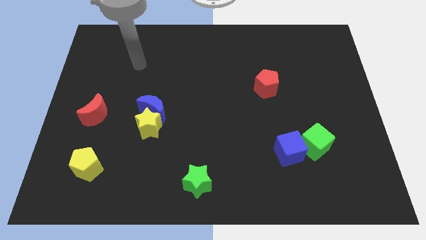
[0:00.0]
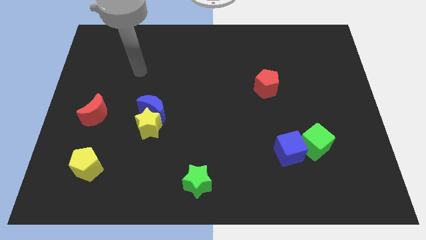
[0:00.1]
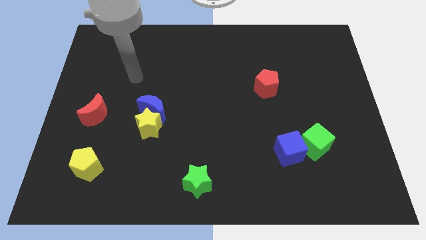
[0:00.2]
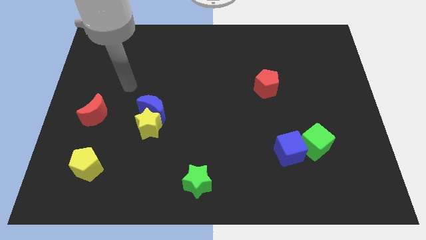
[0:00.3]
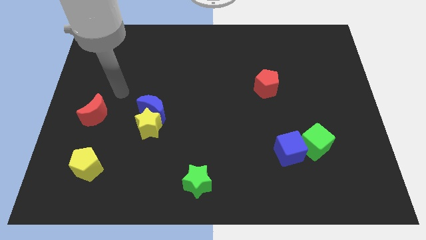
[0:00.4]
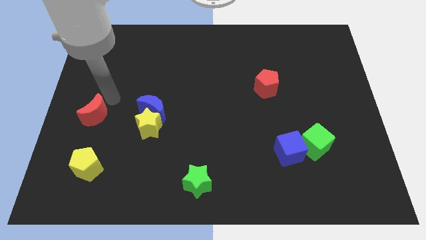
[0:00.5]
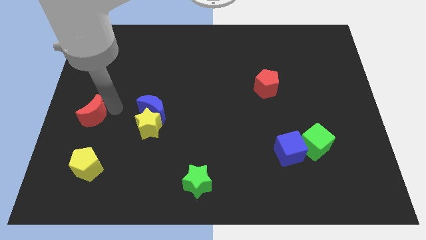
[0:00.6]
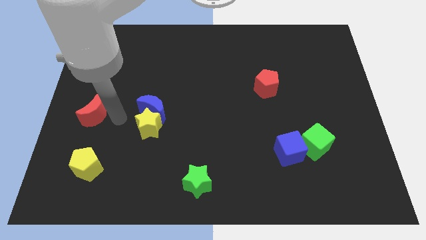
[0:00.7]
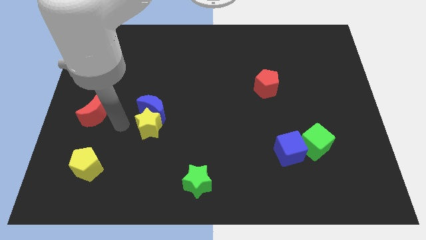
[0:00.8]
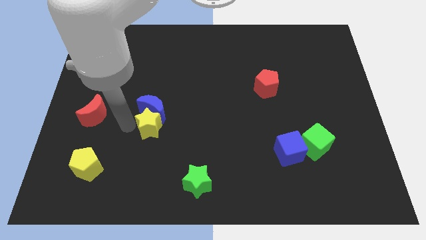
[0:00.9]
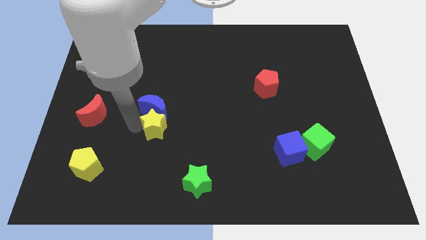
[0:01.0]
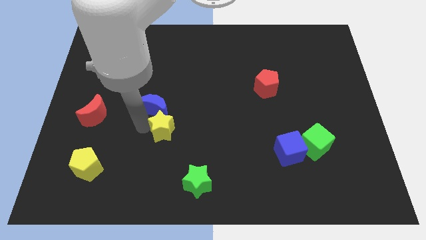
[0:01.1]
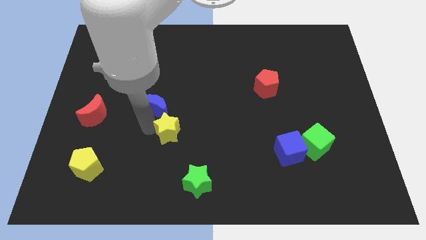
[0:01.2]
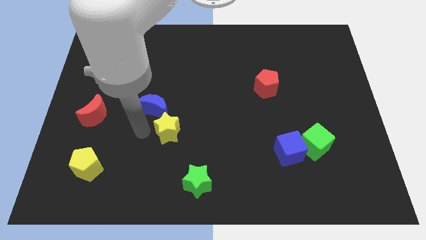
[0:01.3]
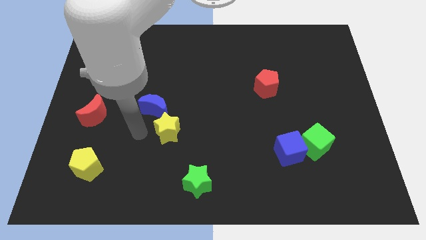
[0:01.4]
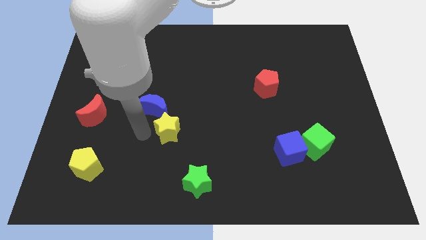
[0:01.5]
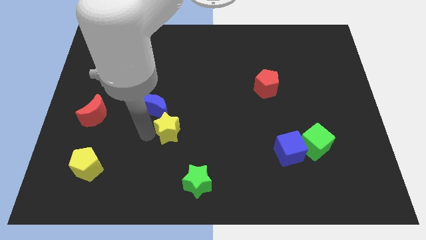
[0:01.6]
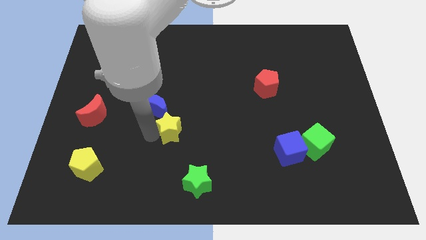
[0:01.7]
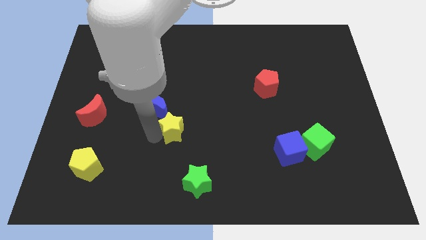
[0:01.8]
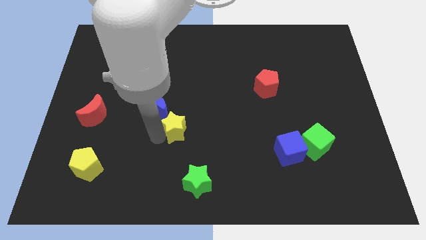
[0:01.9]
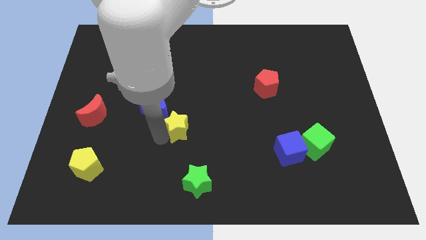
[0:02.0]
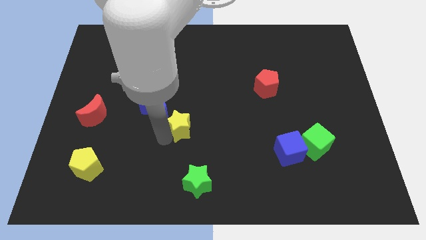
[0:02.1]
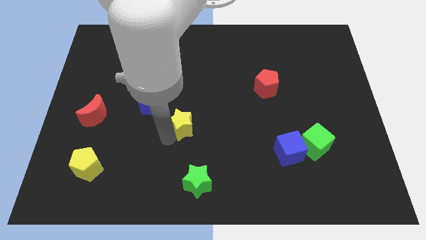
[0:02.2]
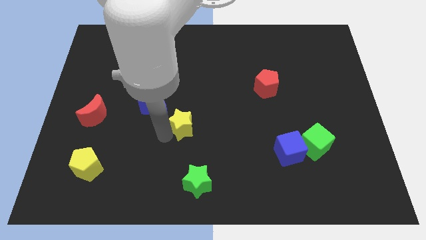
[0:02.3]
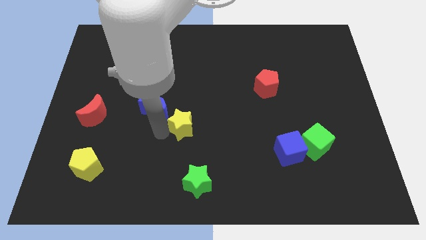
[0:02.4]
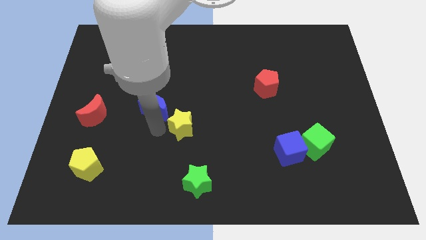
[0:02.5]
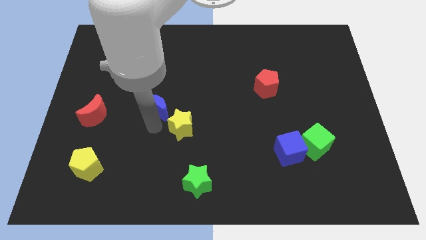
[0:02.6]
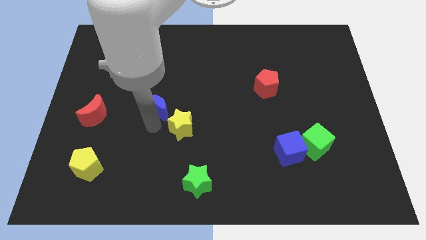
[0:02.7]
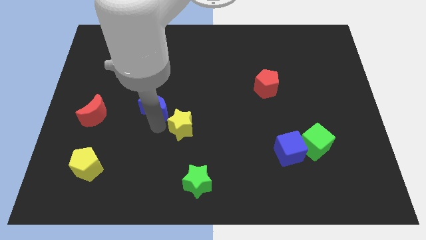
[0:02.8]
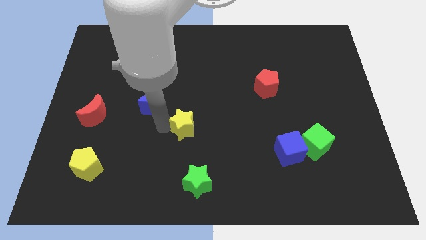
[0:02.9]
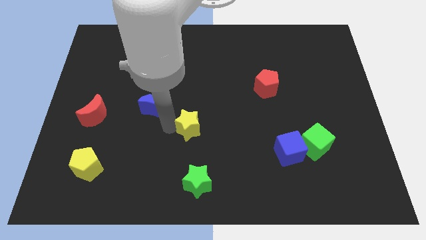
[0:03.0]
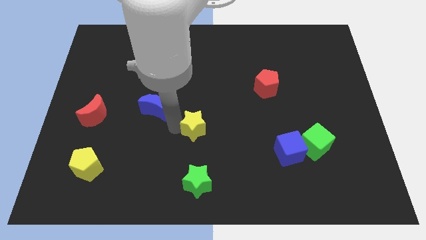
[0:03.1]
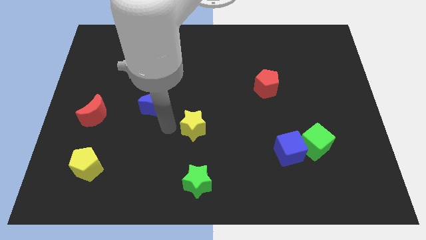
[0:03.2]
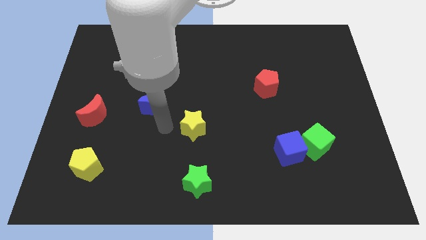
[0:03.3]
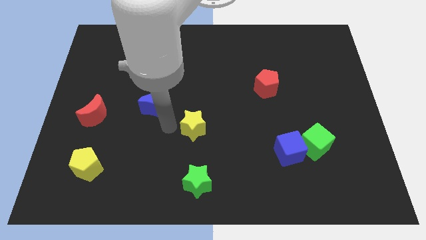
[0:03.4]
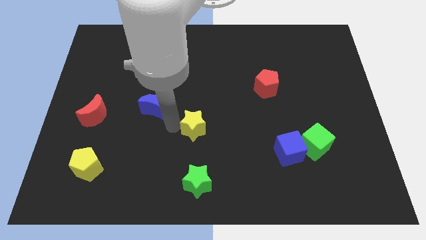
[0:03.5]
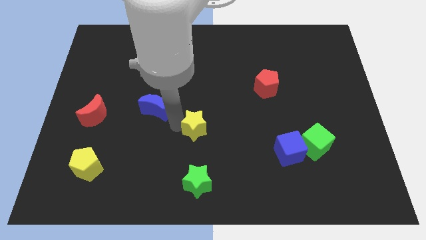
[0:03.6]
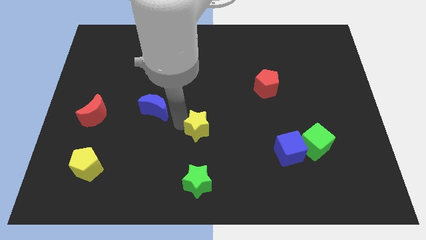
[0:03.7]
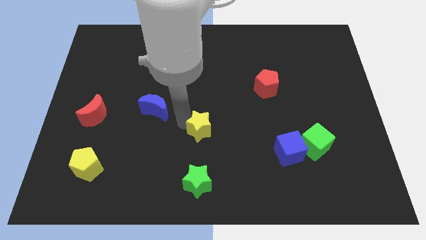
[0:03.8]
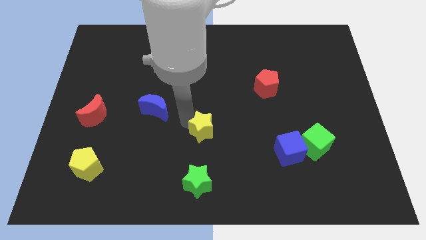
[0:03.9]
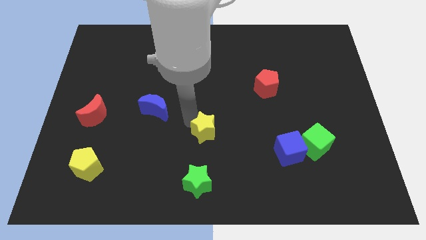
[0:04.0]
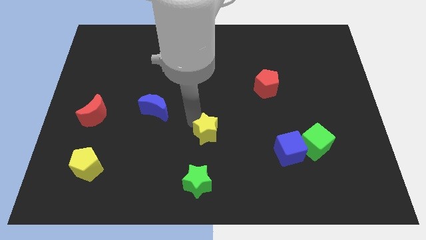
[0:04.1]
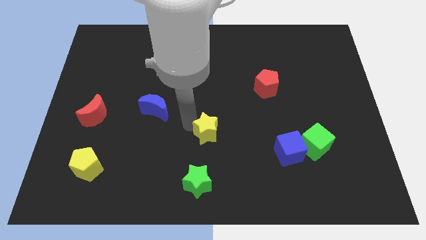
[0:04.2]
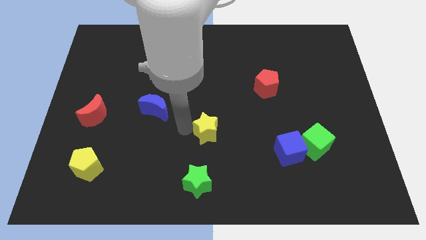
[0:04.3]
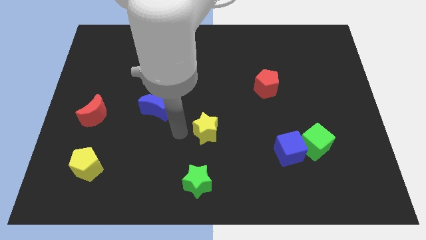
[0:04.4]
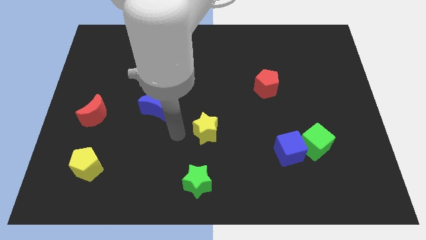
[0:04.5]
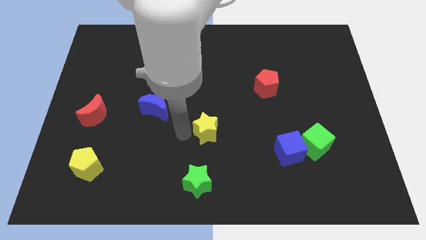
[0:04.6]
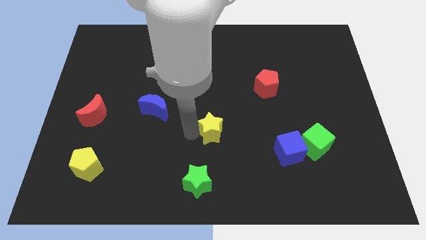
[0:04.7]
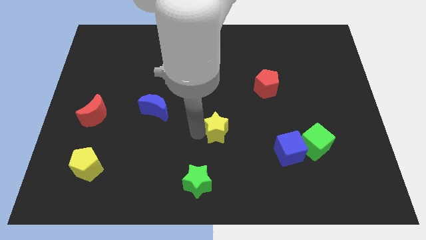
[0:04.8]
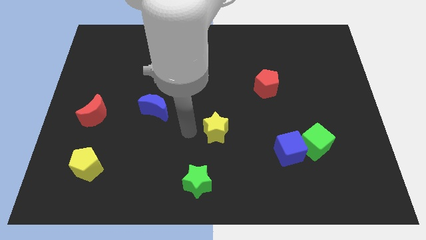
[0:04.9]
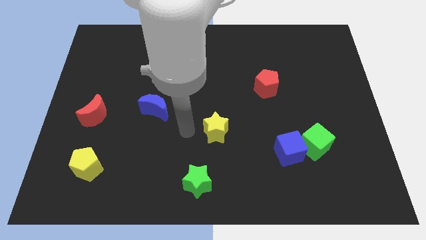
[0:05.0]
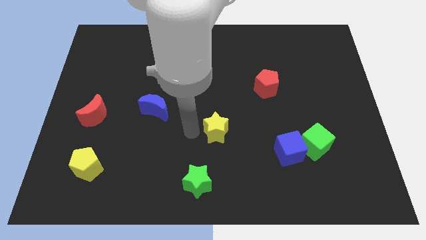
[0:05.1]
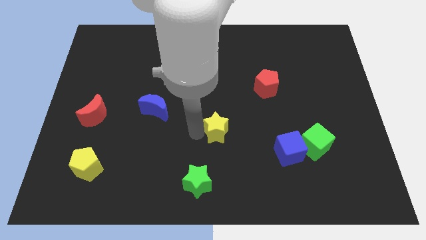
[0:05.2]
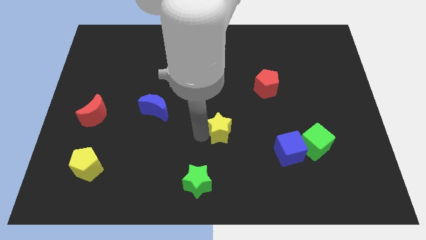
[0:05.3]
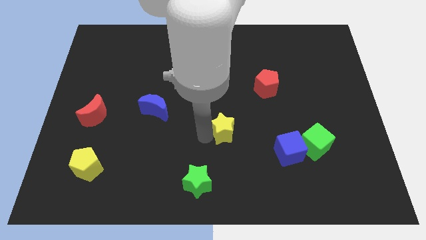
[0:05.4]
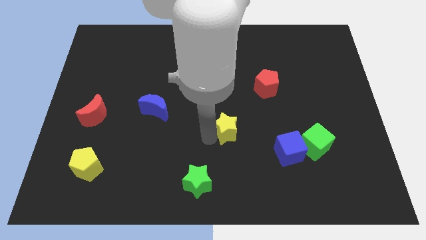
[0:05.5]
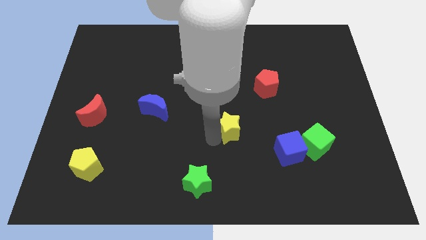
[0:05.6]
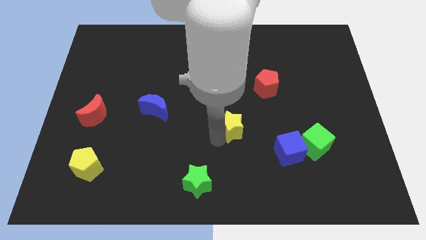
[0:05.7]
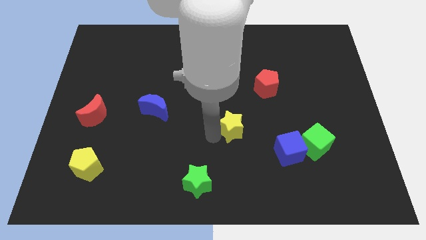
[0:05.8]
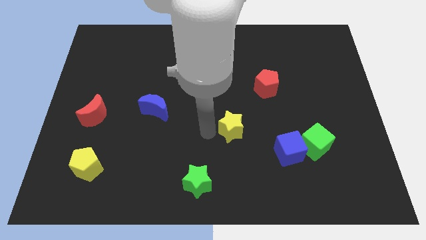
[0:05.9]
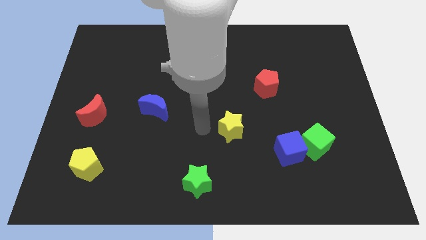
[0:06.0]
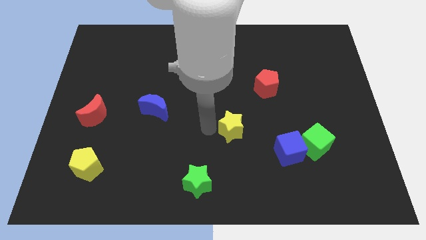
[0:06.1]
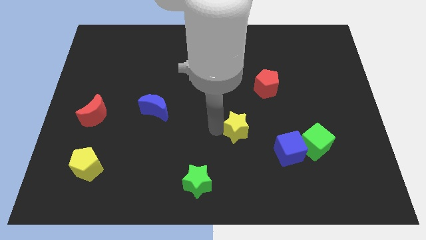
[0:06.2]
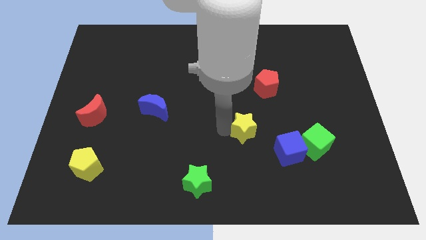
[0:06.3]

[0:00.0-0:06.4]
put the yellow star to the top left side of the blue cube
